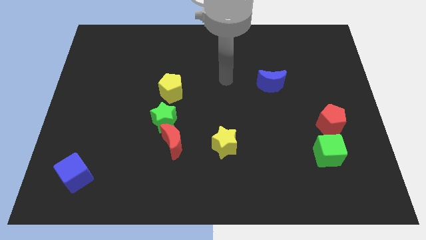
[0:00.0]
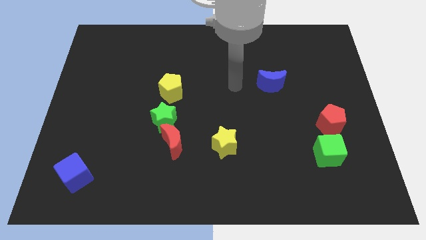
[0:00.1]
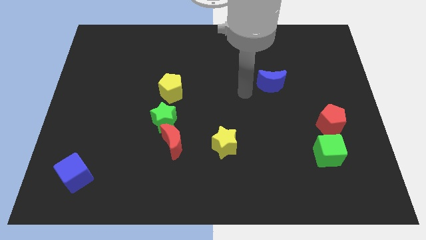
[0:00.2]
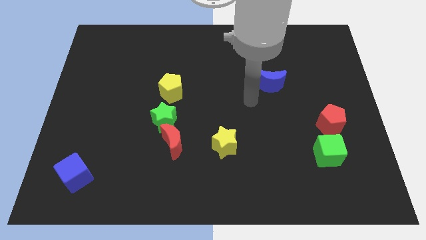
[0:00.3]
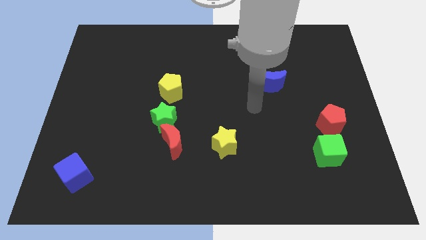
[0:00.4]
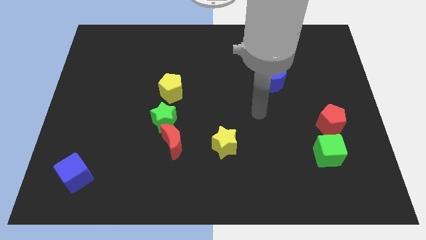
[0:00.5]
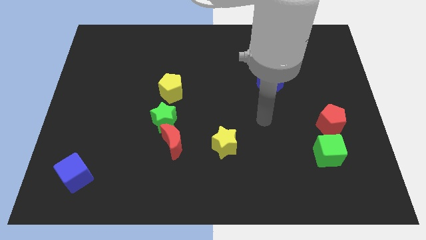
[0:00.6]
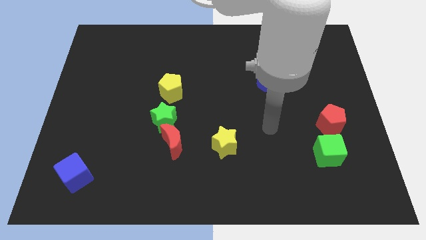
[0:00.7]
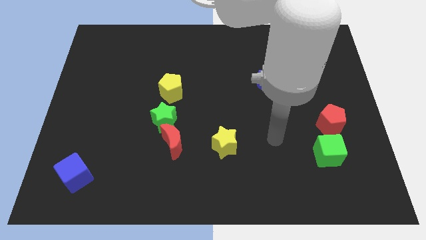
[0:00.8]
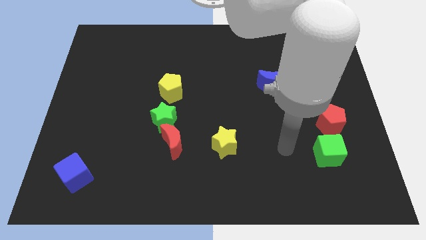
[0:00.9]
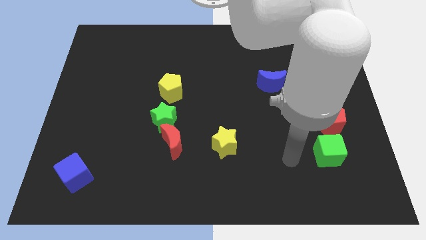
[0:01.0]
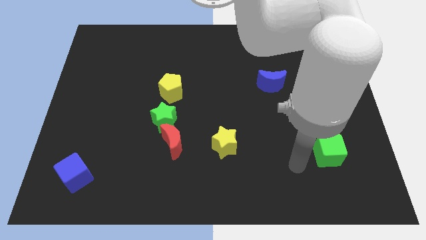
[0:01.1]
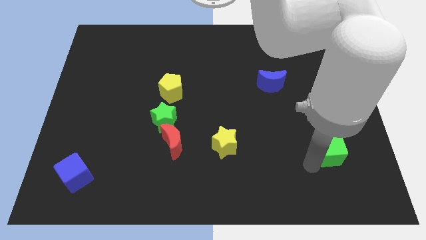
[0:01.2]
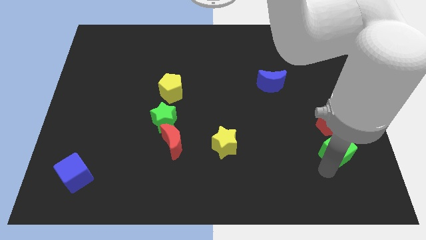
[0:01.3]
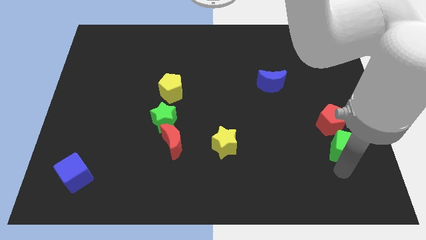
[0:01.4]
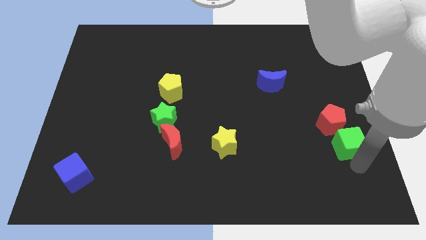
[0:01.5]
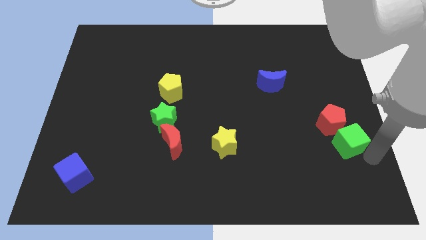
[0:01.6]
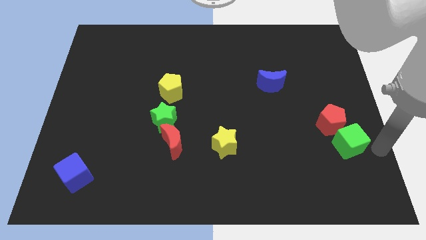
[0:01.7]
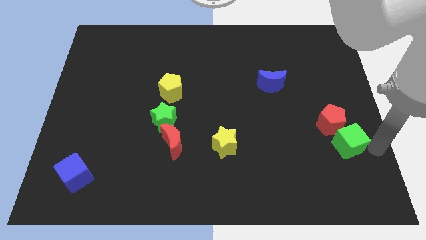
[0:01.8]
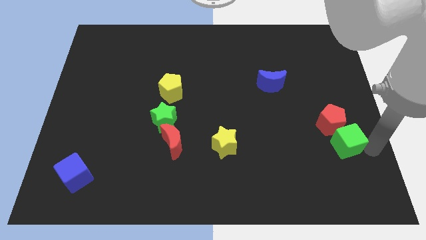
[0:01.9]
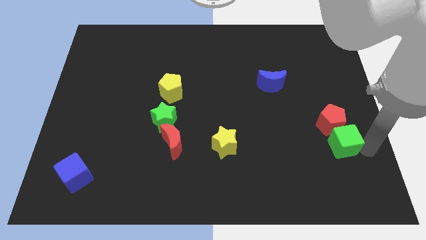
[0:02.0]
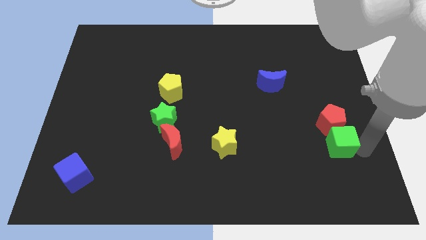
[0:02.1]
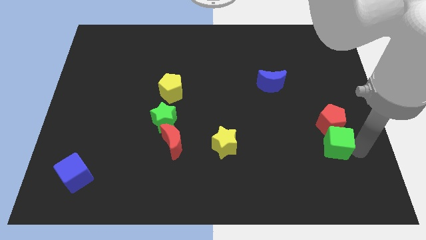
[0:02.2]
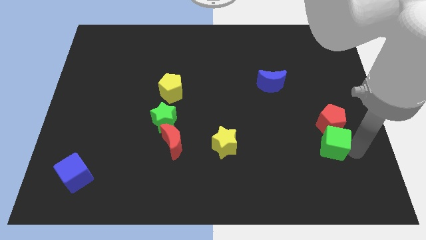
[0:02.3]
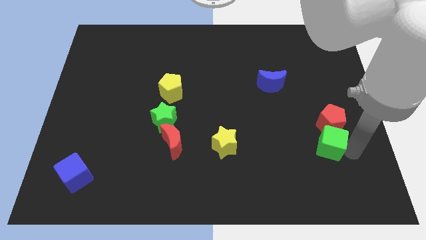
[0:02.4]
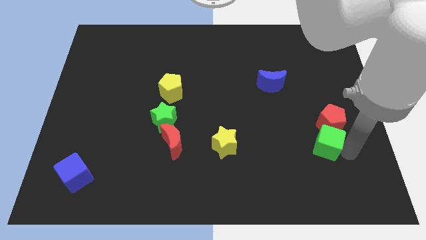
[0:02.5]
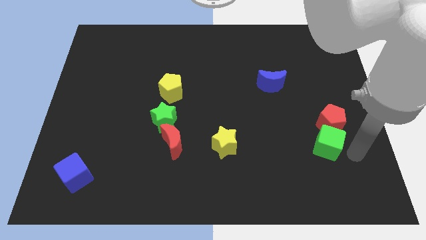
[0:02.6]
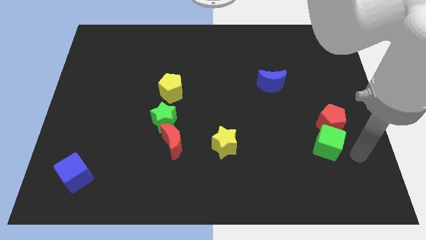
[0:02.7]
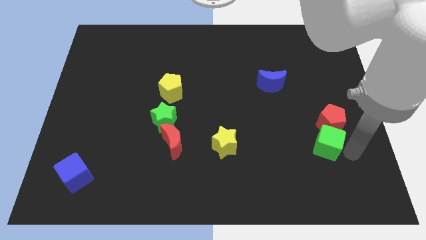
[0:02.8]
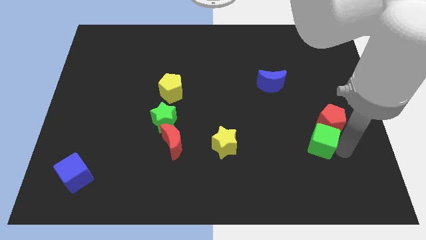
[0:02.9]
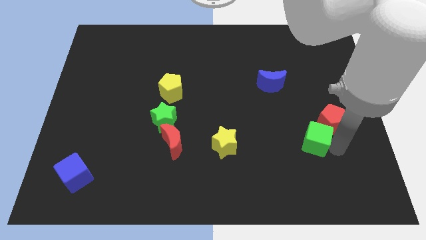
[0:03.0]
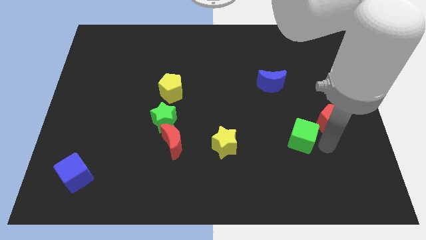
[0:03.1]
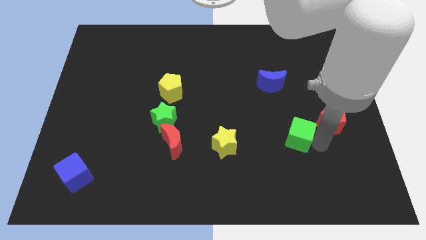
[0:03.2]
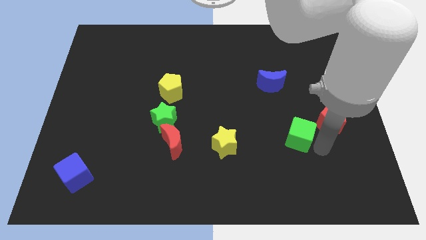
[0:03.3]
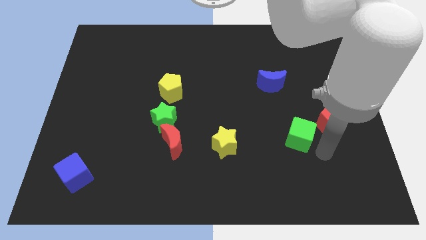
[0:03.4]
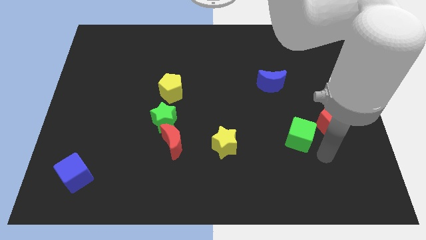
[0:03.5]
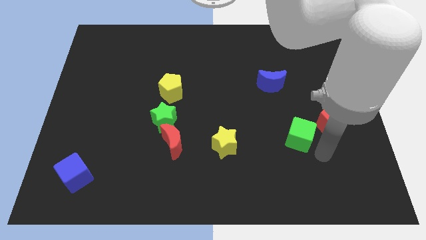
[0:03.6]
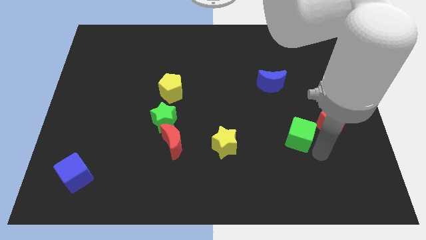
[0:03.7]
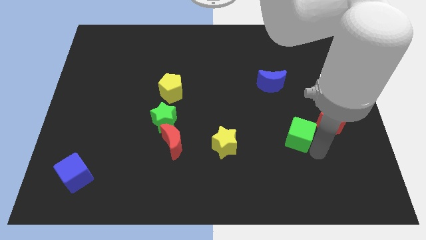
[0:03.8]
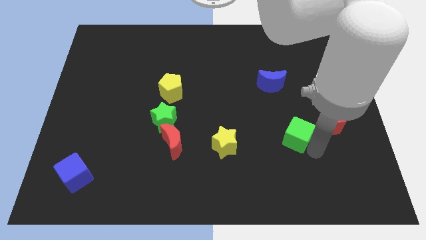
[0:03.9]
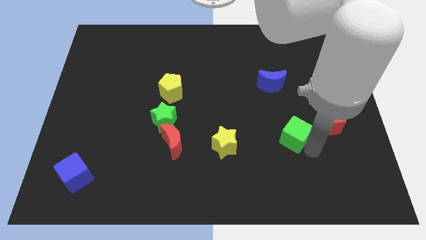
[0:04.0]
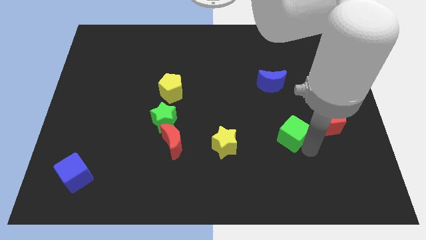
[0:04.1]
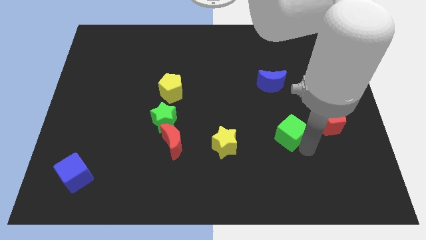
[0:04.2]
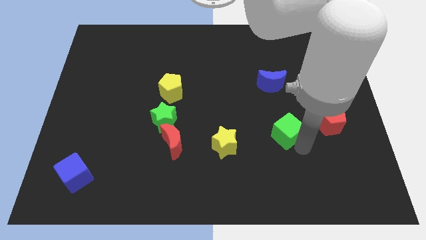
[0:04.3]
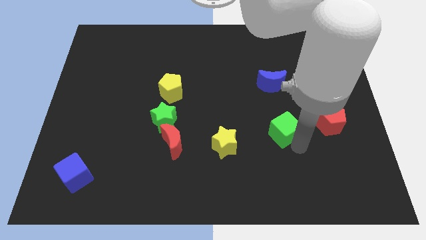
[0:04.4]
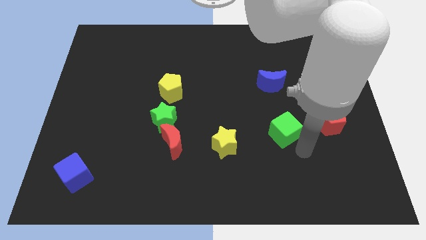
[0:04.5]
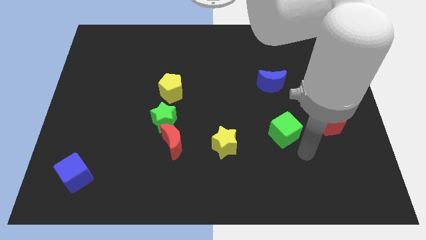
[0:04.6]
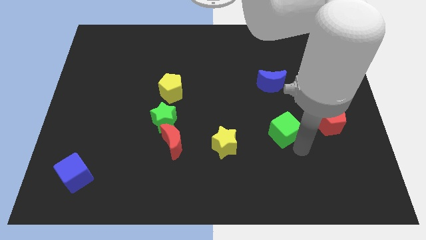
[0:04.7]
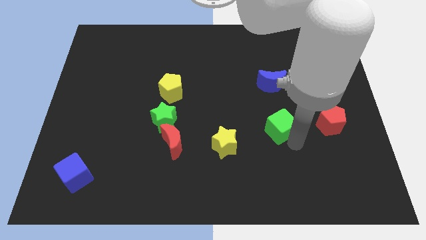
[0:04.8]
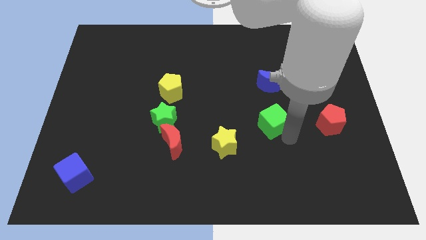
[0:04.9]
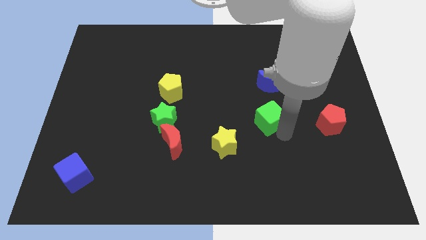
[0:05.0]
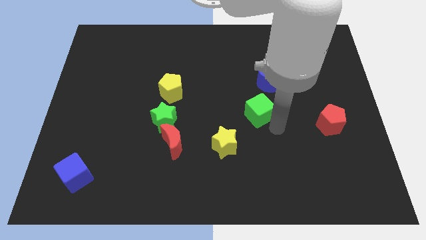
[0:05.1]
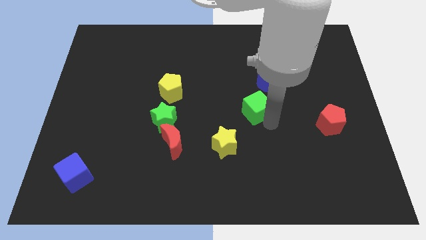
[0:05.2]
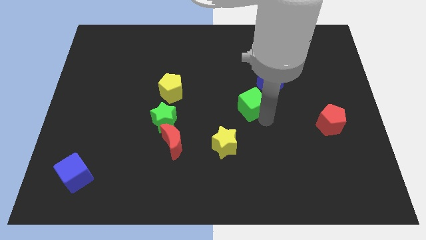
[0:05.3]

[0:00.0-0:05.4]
slide the green cube diagonally upwards and left

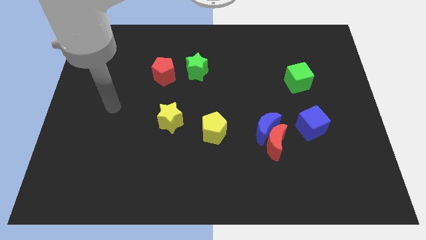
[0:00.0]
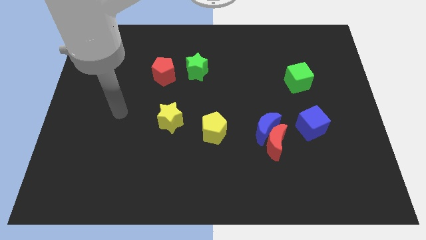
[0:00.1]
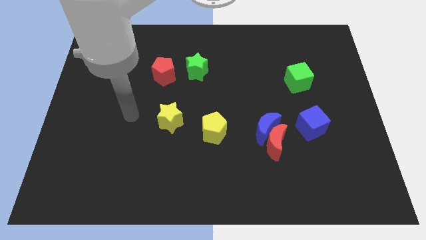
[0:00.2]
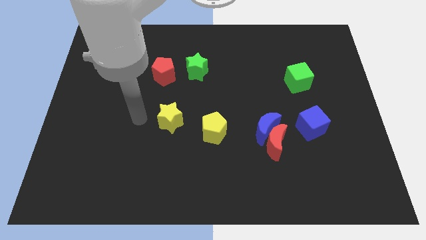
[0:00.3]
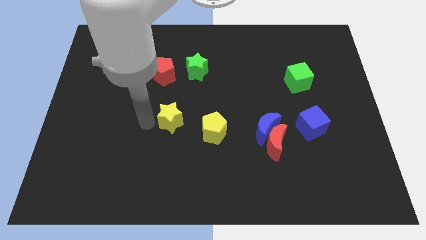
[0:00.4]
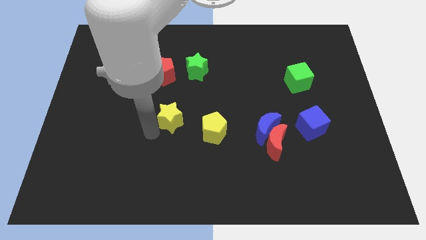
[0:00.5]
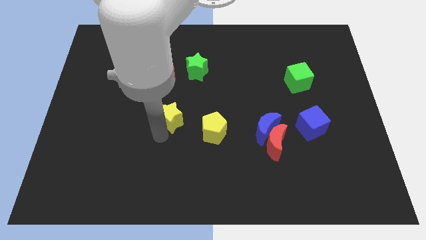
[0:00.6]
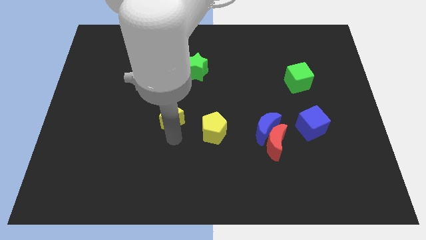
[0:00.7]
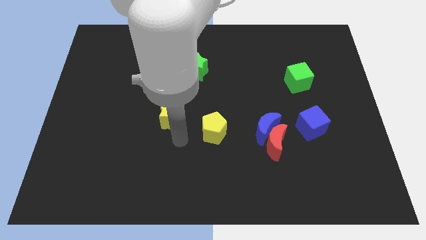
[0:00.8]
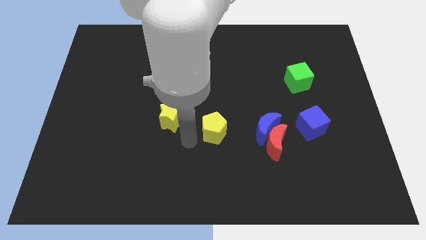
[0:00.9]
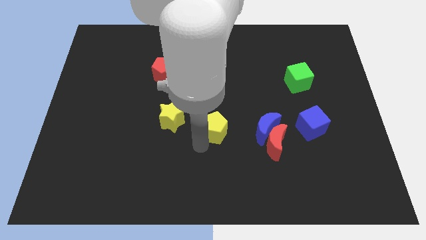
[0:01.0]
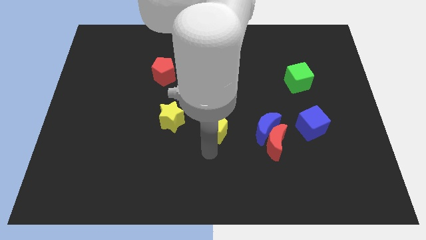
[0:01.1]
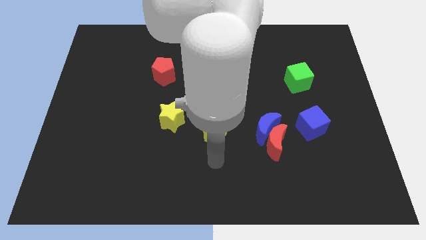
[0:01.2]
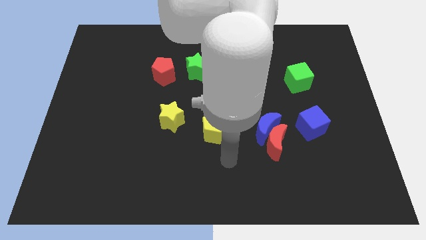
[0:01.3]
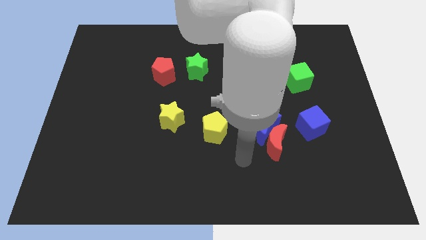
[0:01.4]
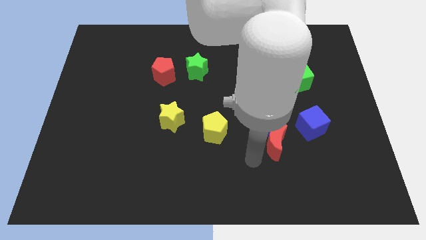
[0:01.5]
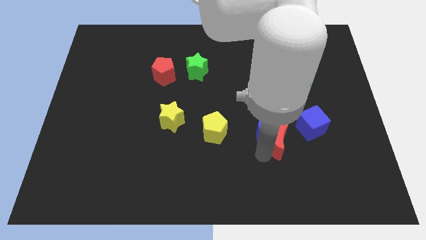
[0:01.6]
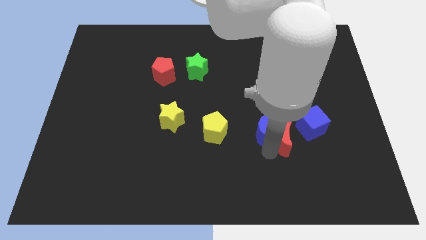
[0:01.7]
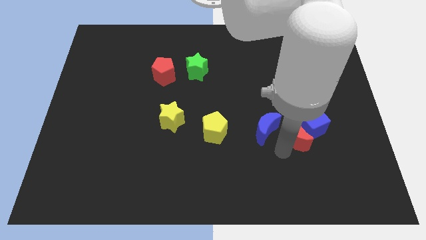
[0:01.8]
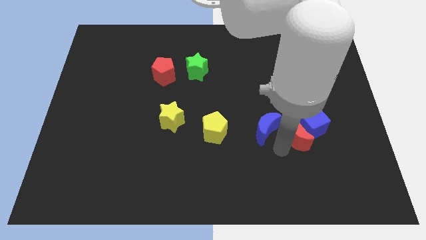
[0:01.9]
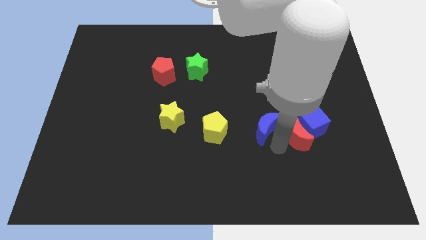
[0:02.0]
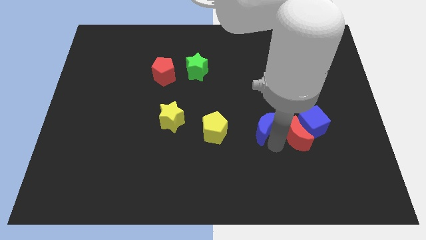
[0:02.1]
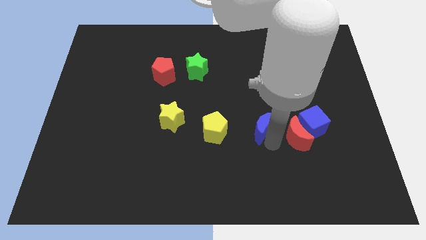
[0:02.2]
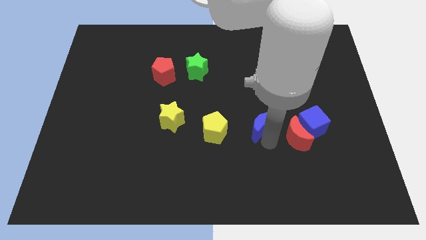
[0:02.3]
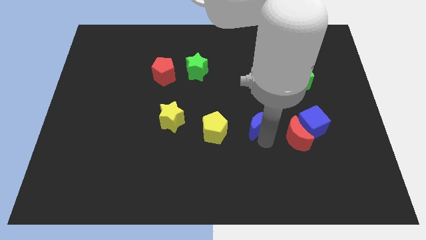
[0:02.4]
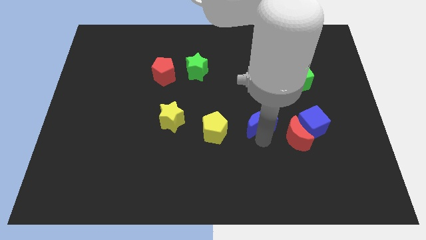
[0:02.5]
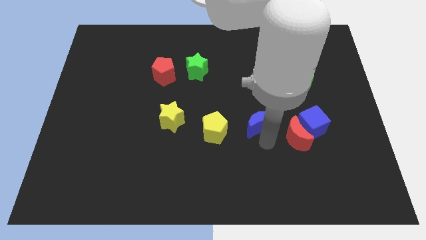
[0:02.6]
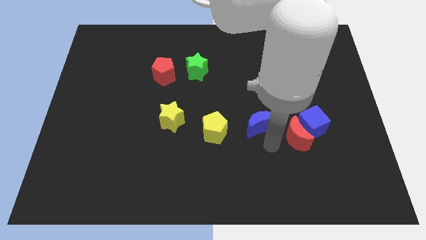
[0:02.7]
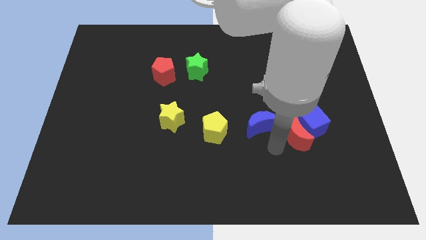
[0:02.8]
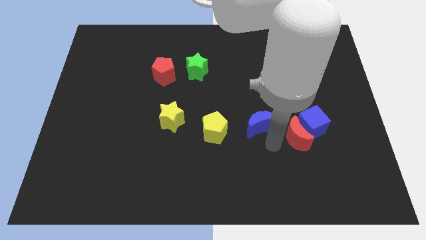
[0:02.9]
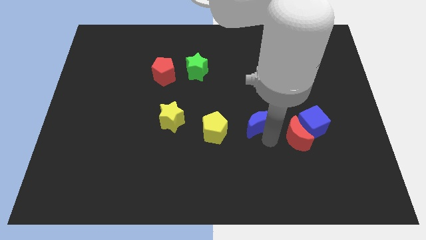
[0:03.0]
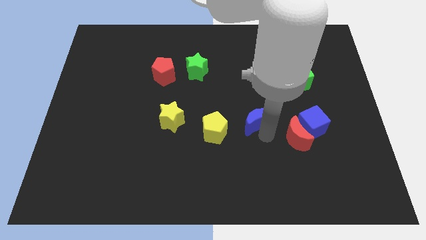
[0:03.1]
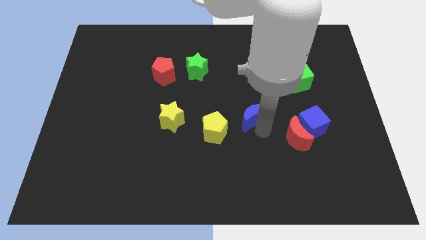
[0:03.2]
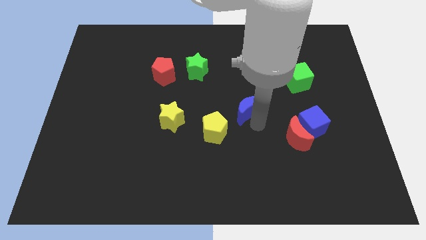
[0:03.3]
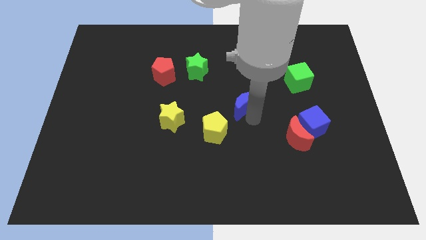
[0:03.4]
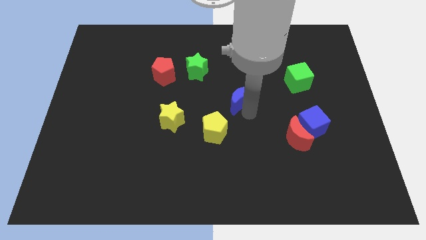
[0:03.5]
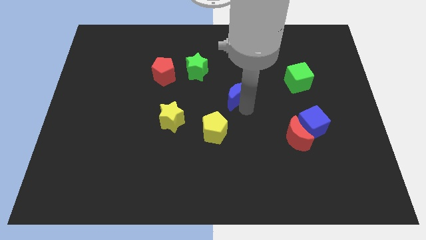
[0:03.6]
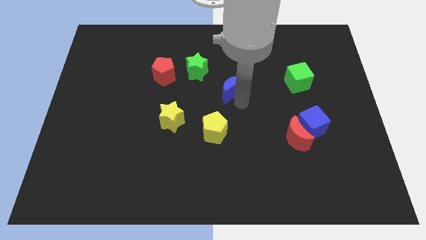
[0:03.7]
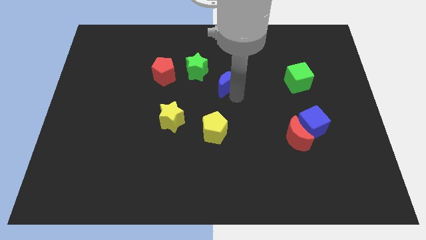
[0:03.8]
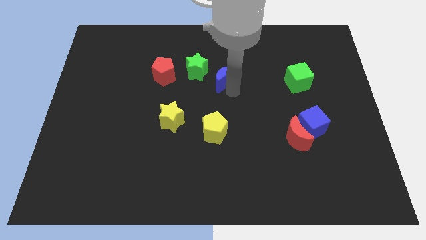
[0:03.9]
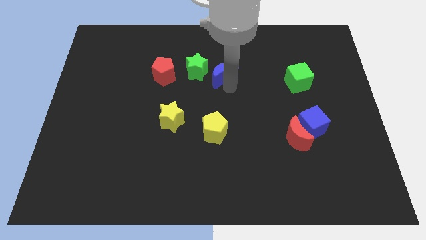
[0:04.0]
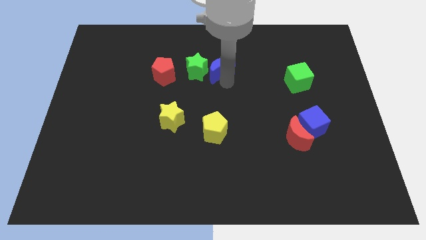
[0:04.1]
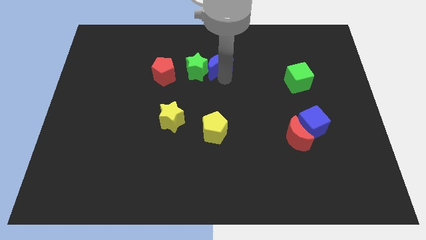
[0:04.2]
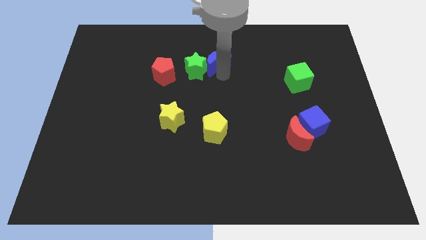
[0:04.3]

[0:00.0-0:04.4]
move the blue moon diagonally upwards and left
